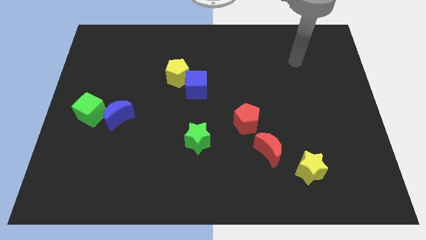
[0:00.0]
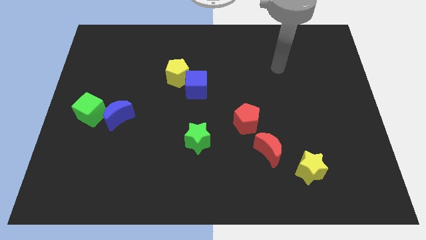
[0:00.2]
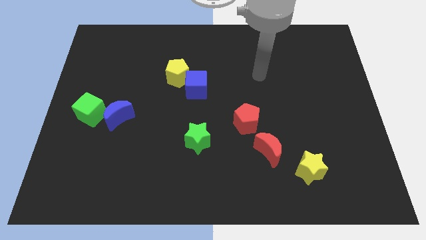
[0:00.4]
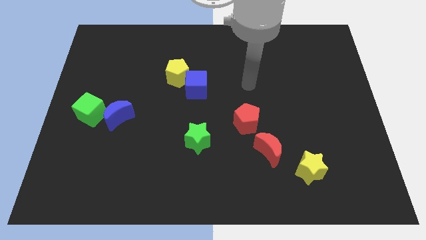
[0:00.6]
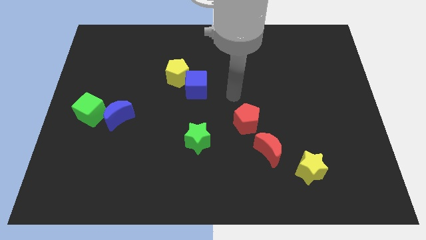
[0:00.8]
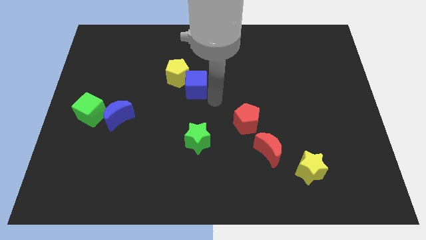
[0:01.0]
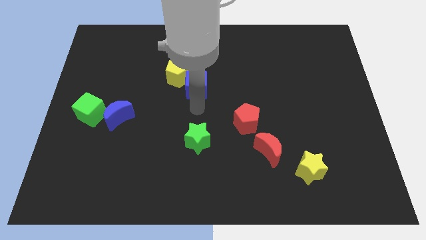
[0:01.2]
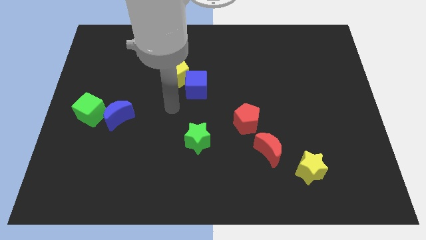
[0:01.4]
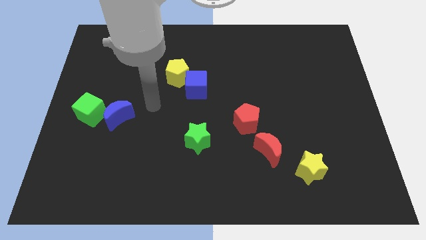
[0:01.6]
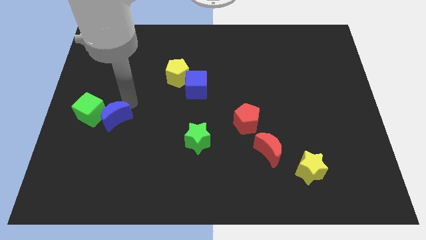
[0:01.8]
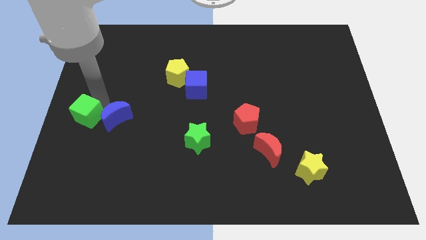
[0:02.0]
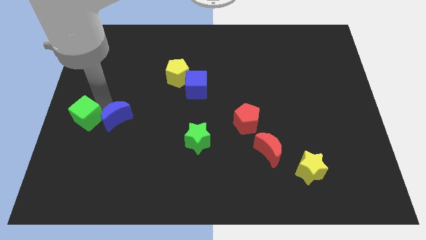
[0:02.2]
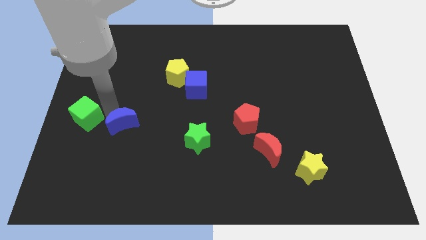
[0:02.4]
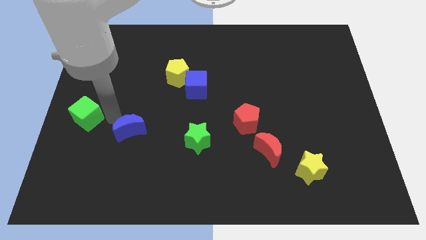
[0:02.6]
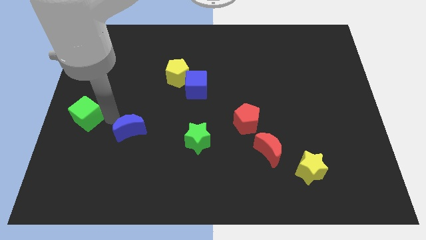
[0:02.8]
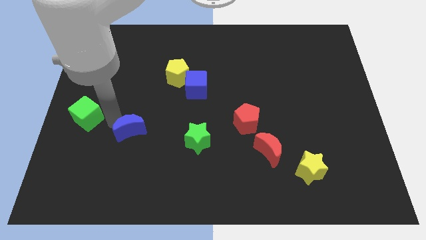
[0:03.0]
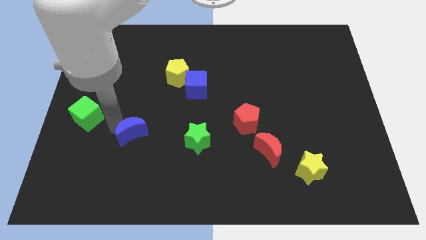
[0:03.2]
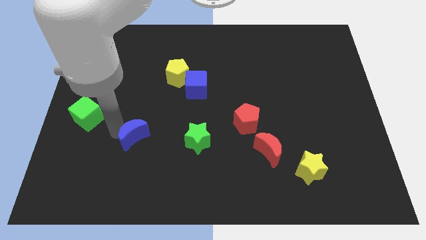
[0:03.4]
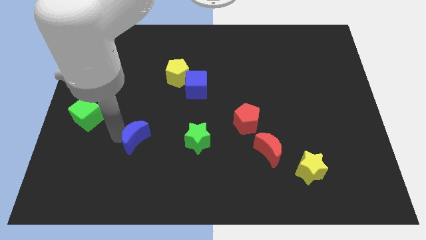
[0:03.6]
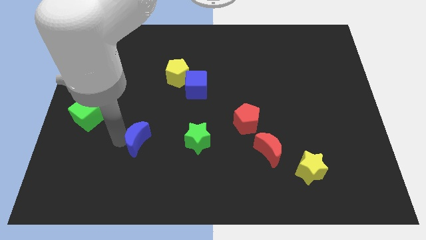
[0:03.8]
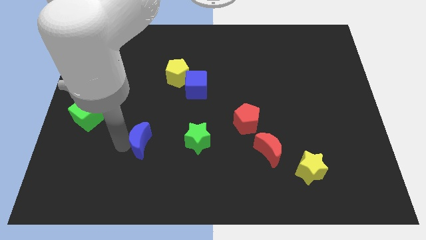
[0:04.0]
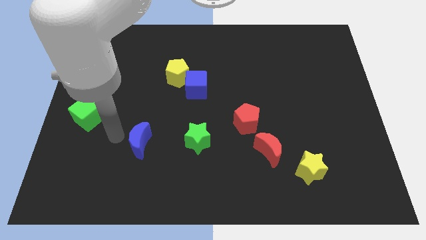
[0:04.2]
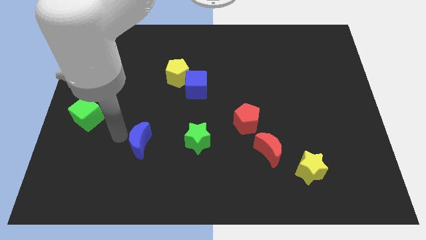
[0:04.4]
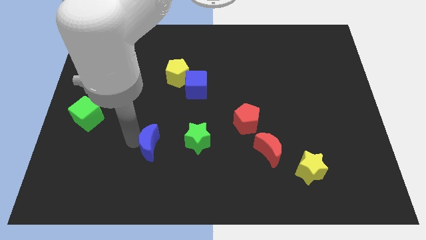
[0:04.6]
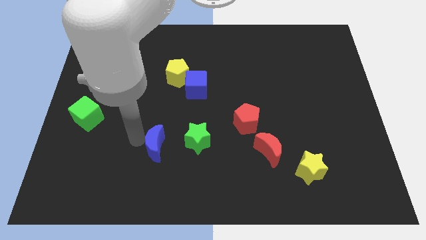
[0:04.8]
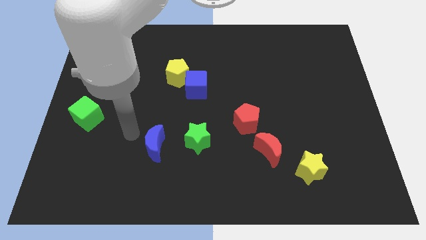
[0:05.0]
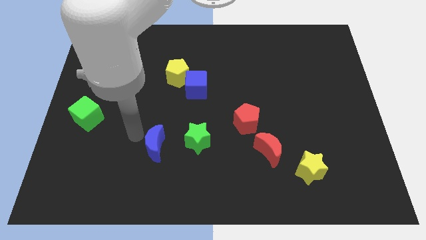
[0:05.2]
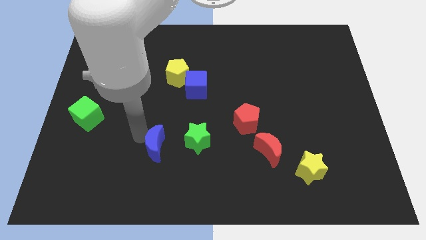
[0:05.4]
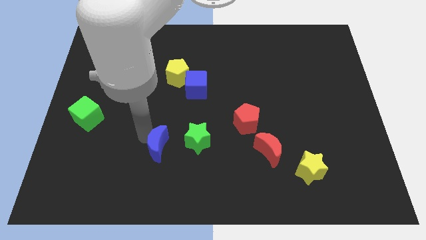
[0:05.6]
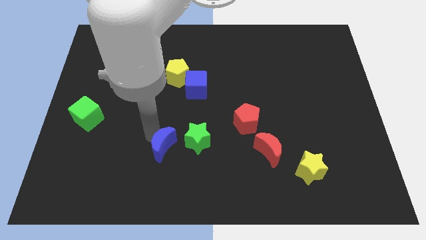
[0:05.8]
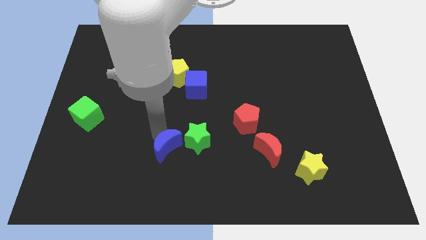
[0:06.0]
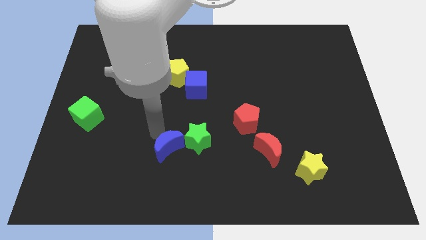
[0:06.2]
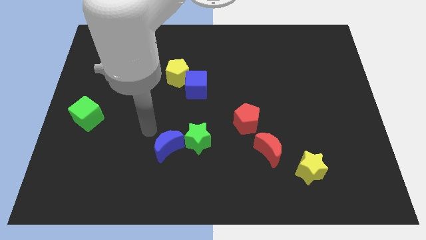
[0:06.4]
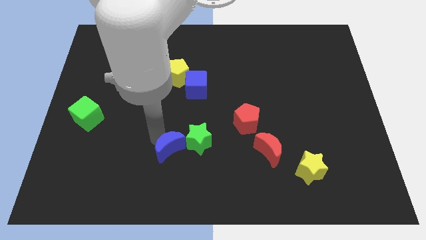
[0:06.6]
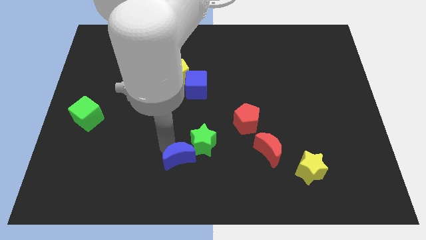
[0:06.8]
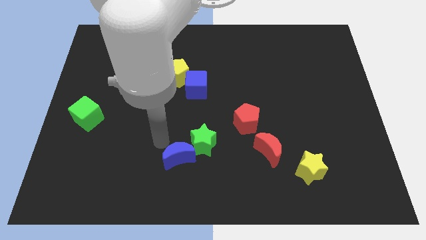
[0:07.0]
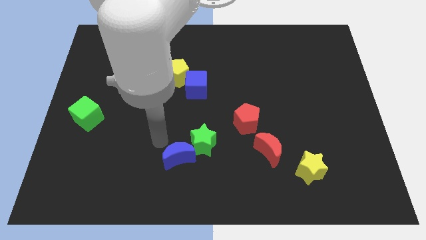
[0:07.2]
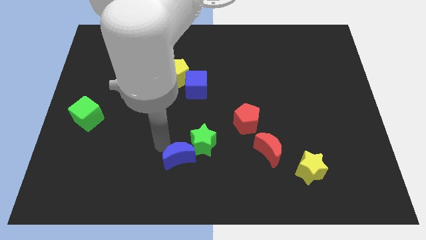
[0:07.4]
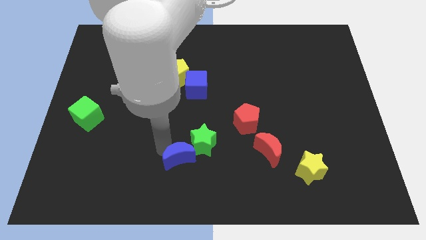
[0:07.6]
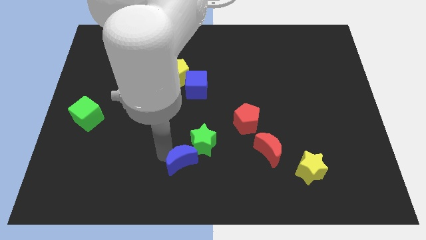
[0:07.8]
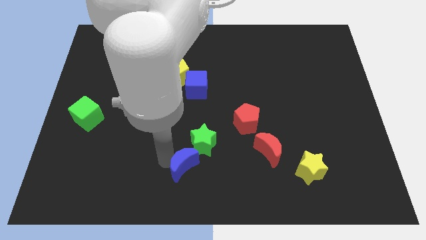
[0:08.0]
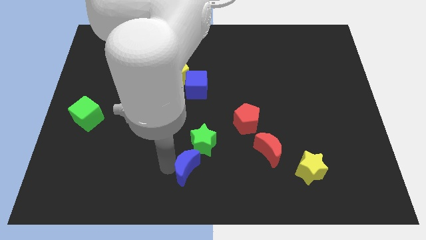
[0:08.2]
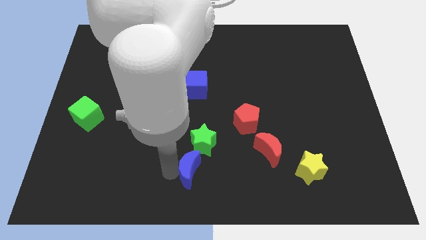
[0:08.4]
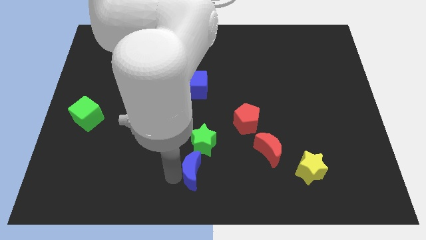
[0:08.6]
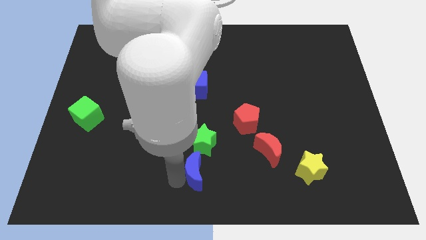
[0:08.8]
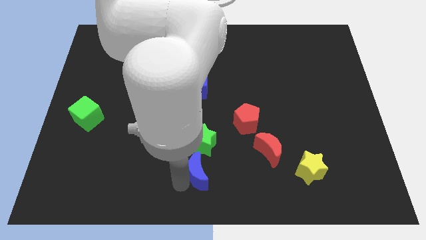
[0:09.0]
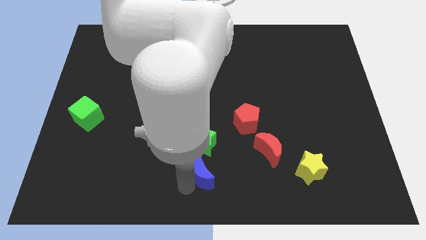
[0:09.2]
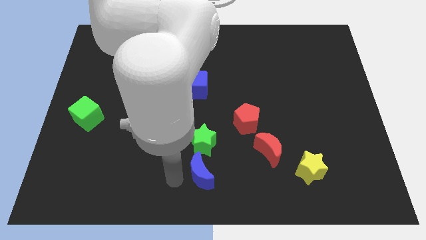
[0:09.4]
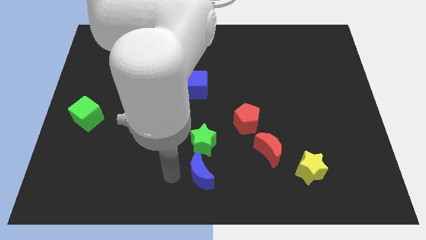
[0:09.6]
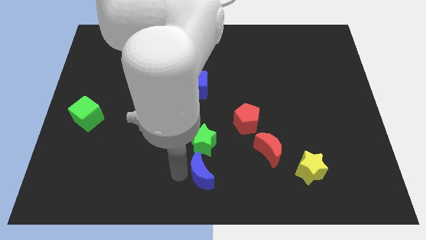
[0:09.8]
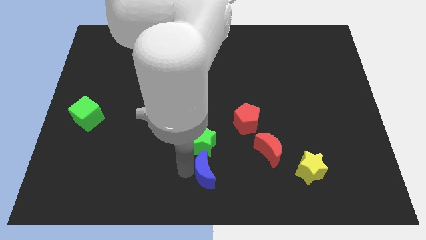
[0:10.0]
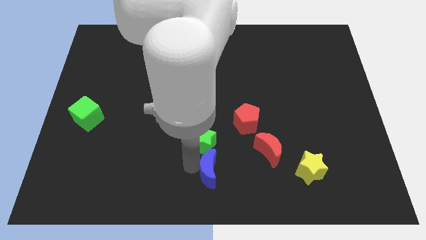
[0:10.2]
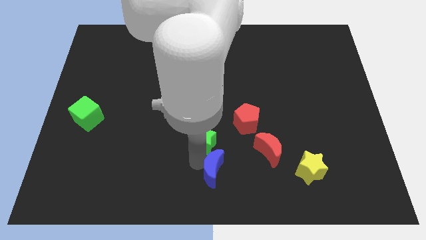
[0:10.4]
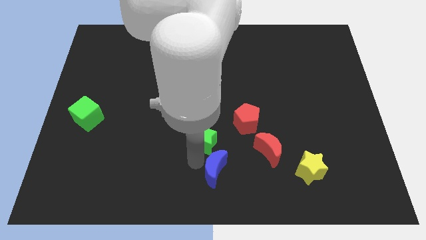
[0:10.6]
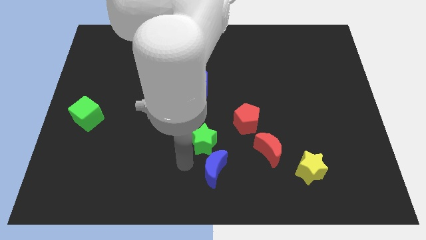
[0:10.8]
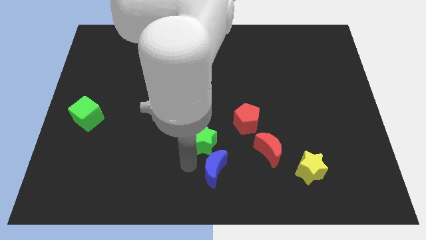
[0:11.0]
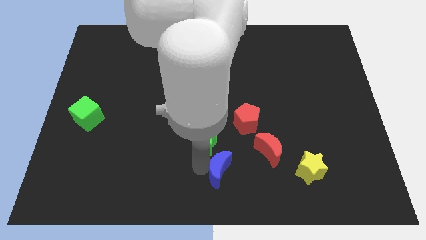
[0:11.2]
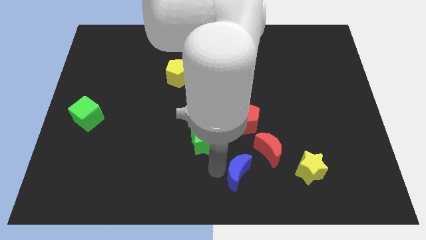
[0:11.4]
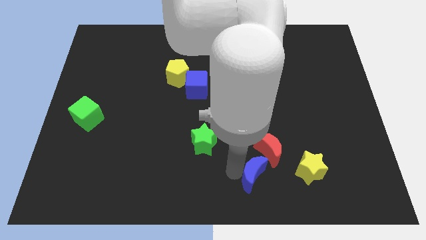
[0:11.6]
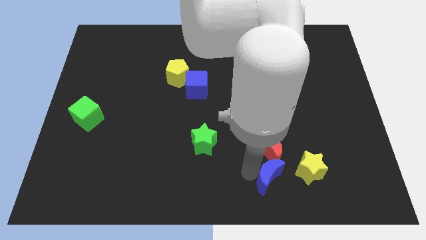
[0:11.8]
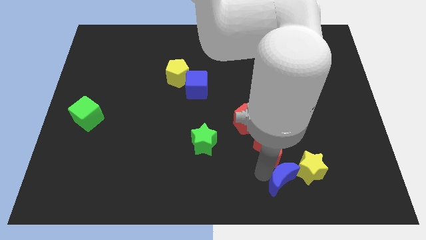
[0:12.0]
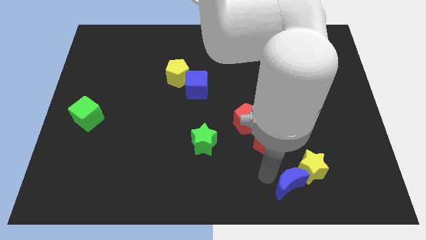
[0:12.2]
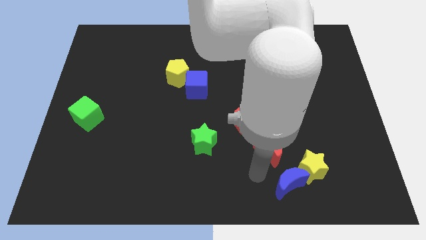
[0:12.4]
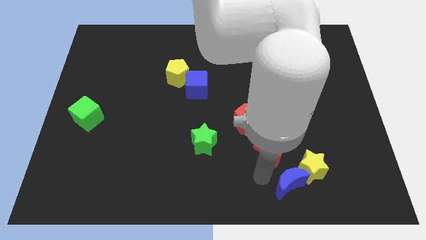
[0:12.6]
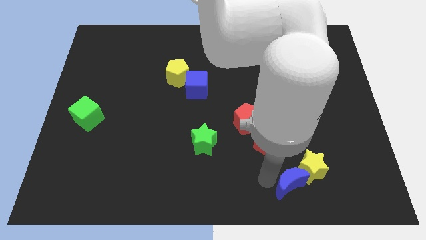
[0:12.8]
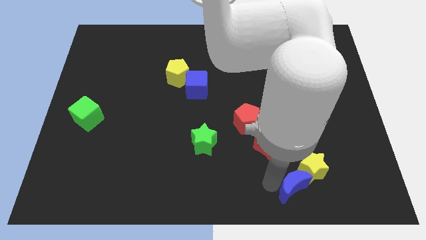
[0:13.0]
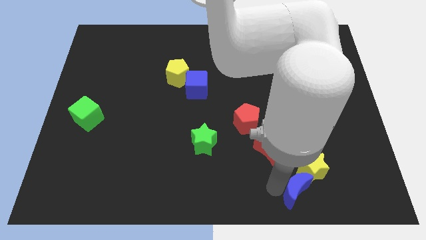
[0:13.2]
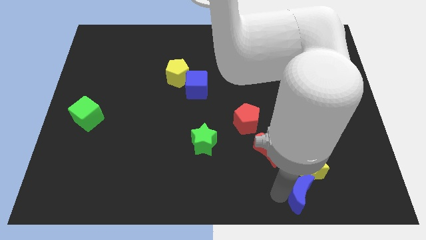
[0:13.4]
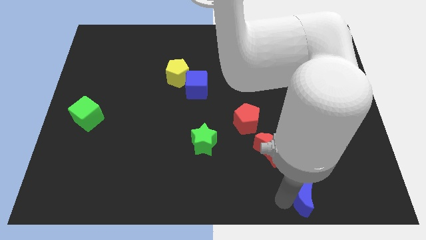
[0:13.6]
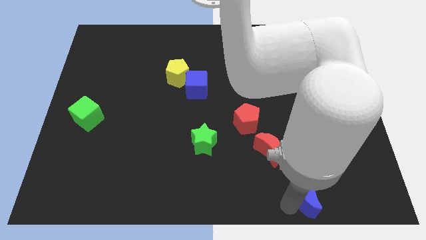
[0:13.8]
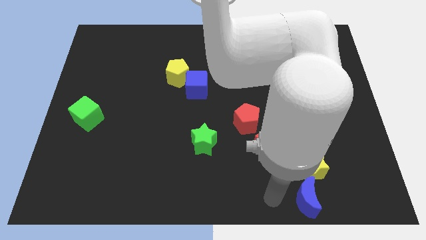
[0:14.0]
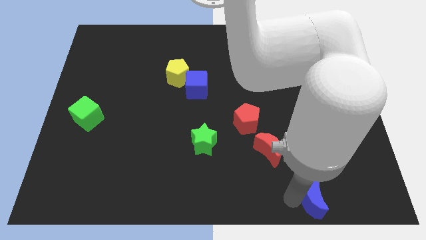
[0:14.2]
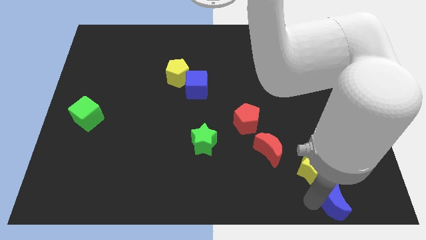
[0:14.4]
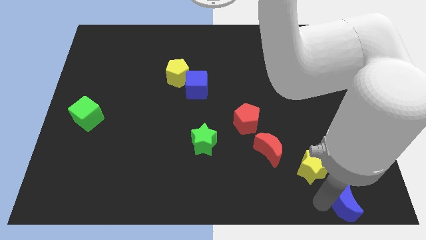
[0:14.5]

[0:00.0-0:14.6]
put the blue moon to the bottom right corner
